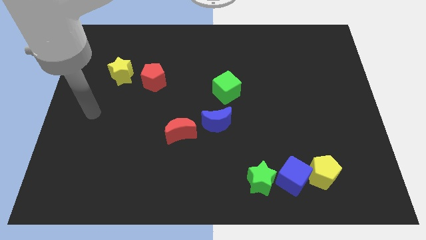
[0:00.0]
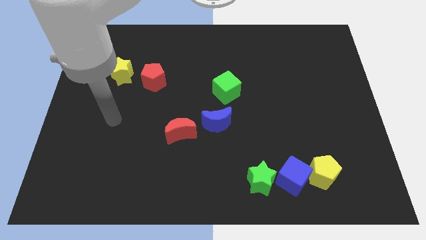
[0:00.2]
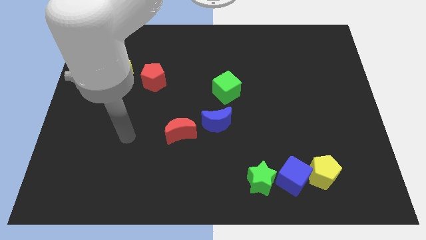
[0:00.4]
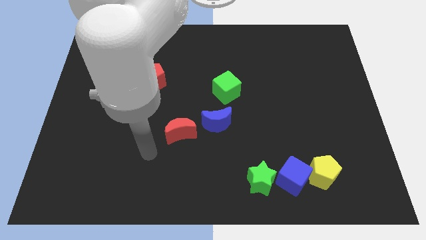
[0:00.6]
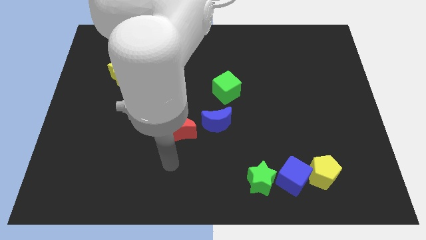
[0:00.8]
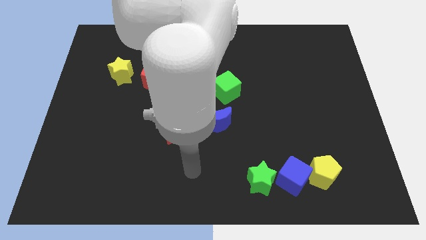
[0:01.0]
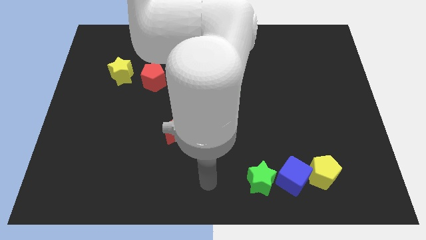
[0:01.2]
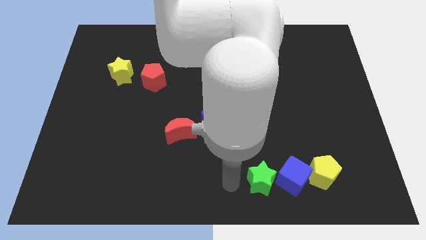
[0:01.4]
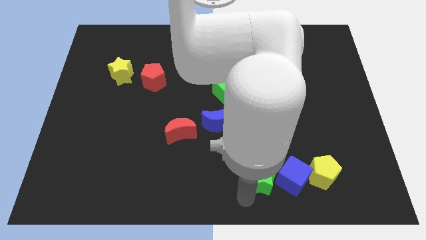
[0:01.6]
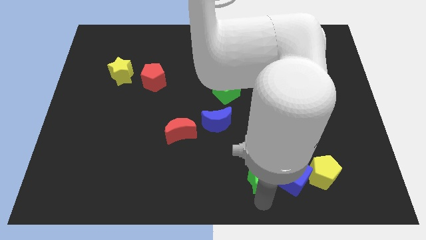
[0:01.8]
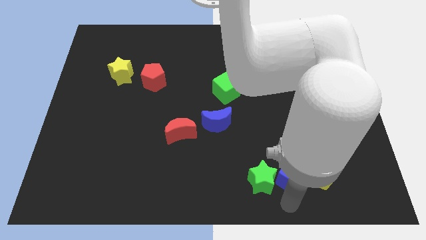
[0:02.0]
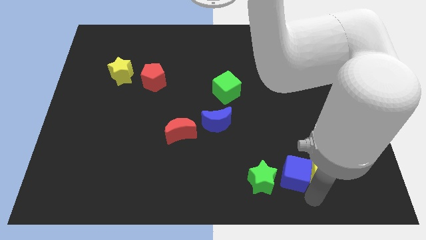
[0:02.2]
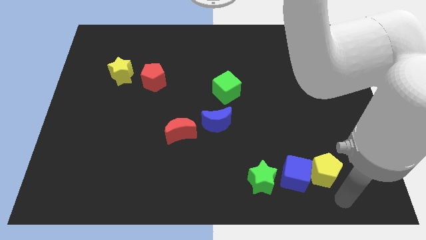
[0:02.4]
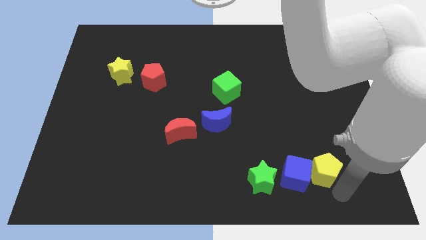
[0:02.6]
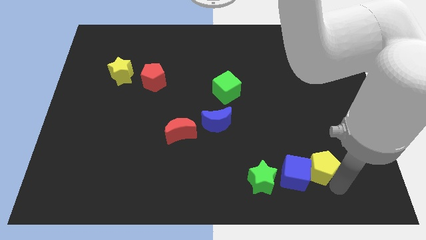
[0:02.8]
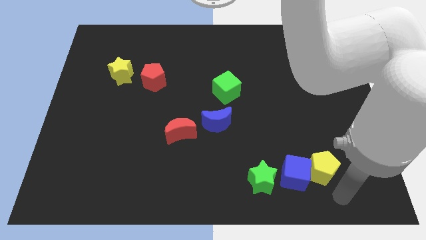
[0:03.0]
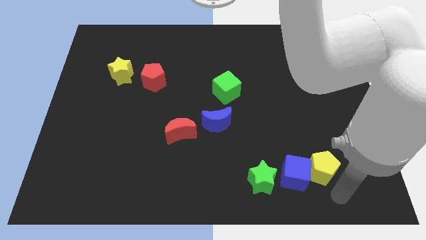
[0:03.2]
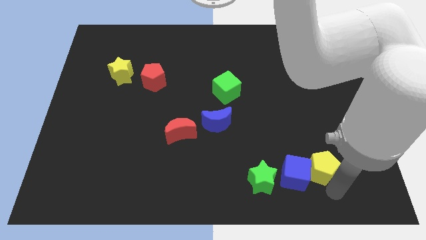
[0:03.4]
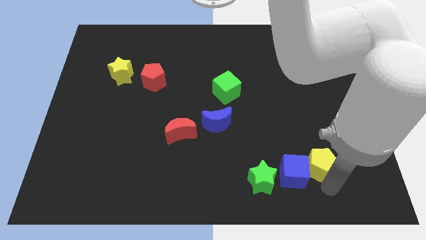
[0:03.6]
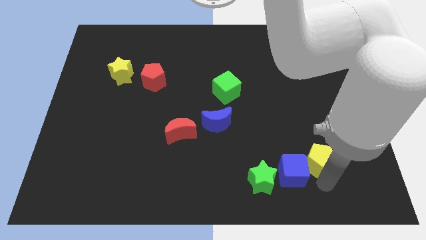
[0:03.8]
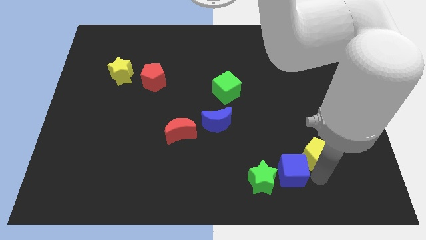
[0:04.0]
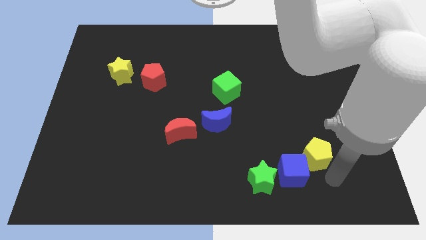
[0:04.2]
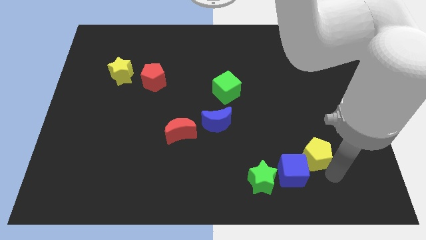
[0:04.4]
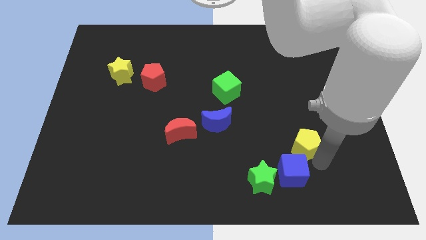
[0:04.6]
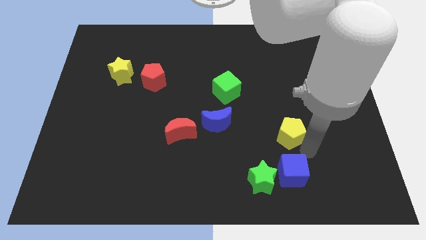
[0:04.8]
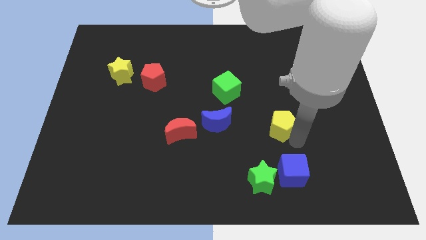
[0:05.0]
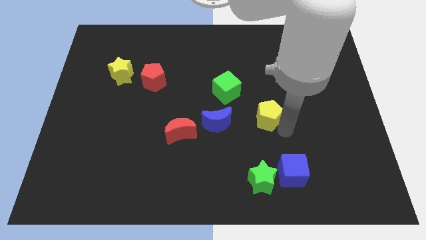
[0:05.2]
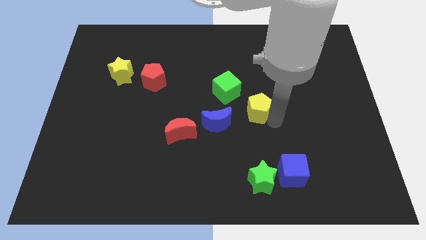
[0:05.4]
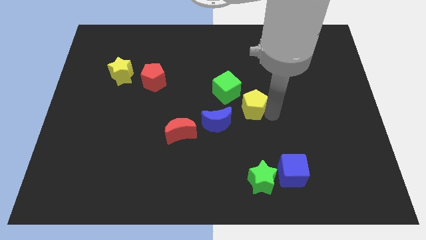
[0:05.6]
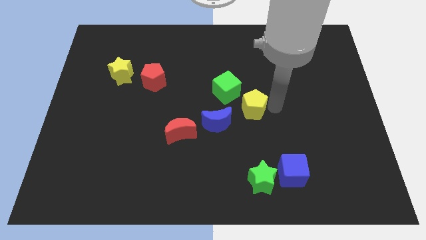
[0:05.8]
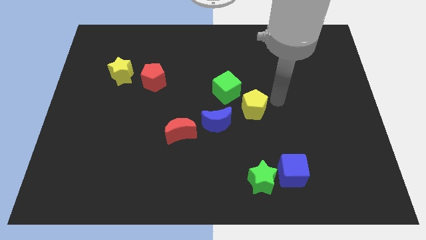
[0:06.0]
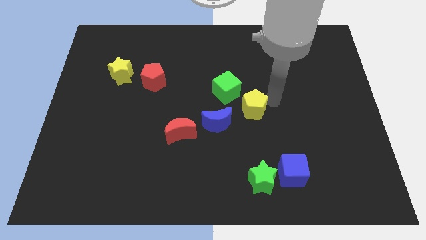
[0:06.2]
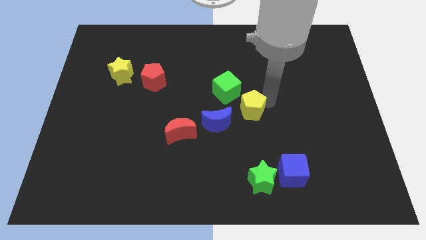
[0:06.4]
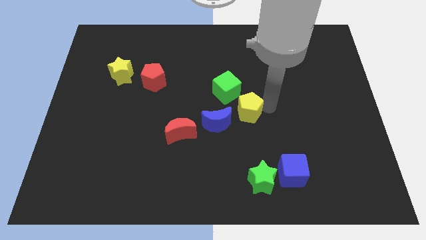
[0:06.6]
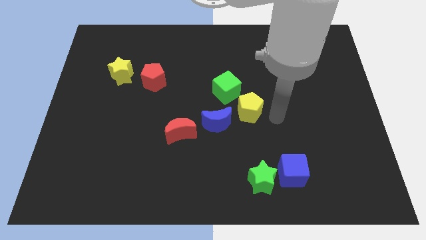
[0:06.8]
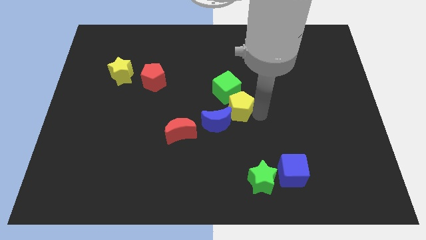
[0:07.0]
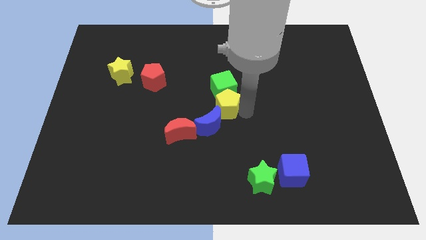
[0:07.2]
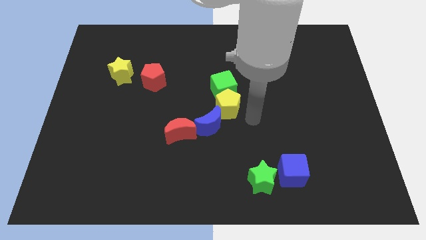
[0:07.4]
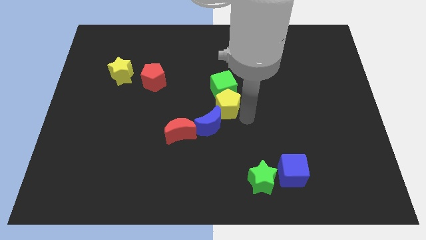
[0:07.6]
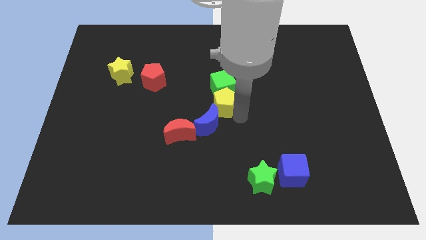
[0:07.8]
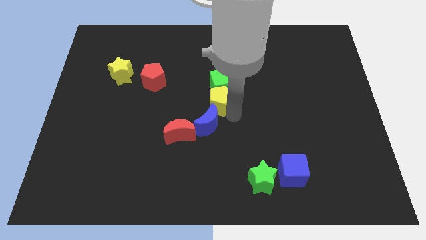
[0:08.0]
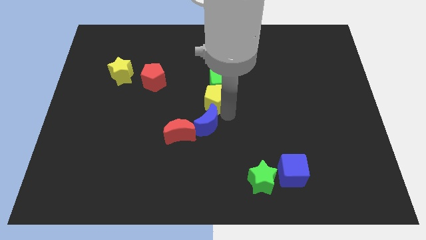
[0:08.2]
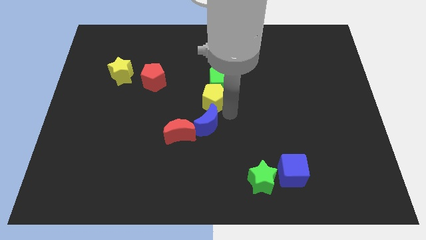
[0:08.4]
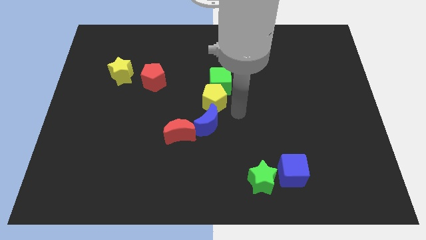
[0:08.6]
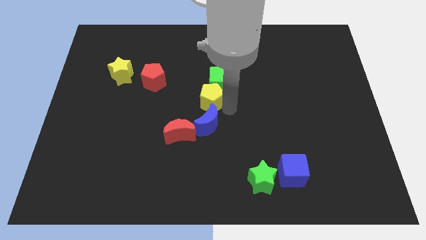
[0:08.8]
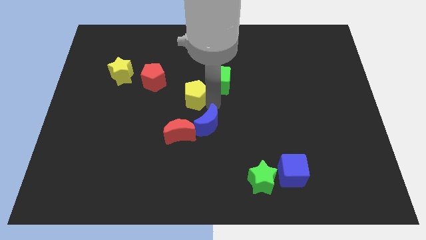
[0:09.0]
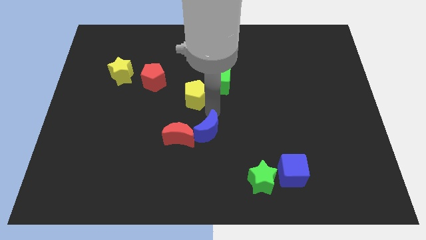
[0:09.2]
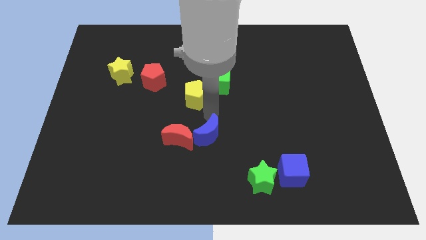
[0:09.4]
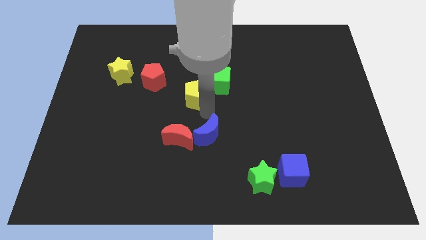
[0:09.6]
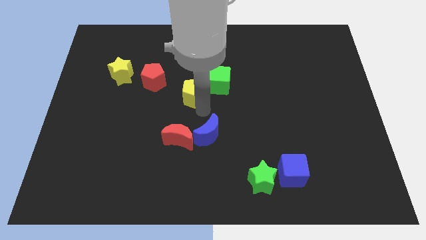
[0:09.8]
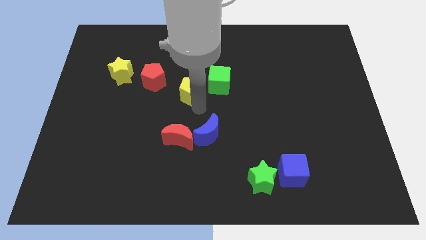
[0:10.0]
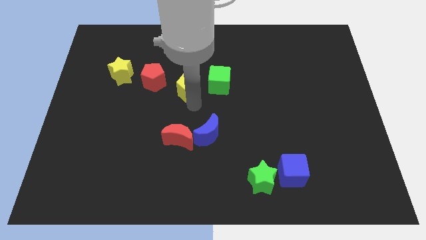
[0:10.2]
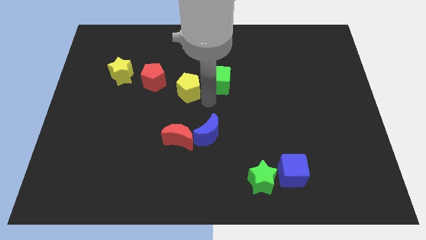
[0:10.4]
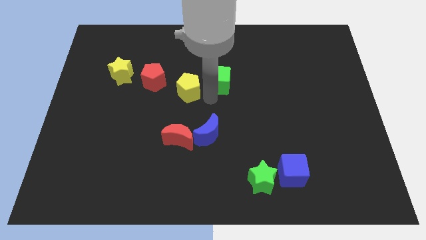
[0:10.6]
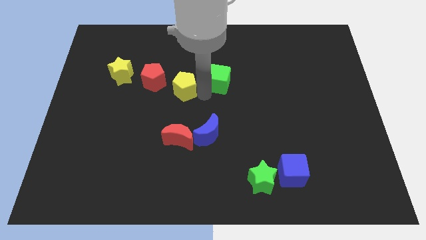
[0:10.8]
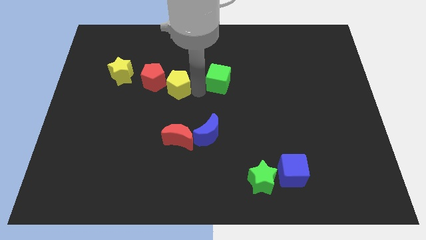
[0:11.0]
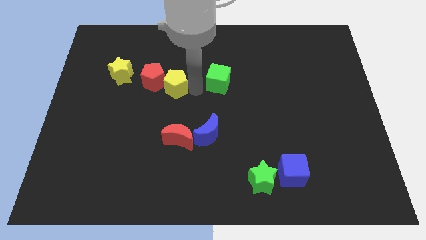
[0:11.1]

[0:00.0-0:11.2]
slide the yellow pentagon to the red pentagon

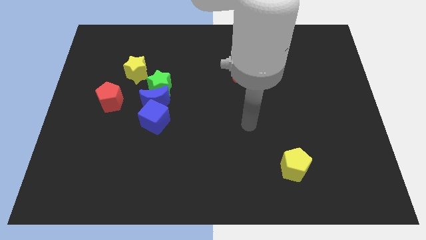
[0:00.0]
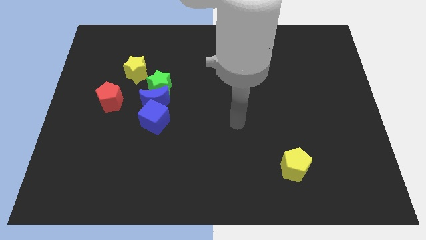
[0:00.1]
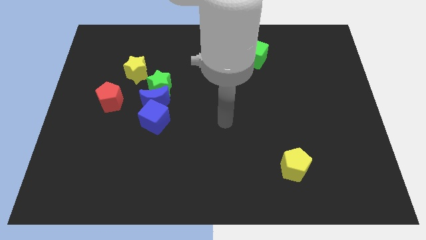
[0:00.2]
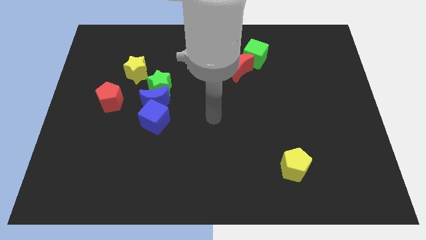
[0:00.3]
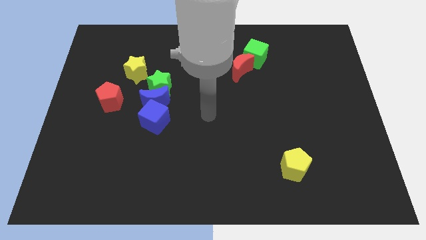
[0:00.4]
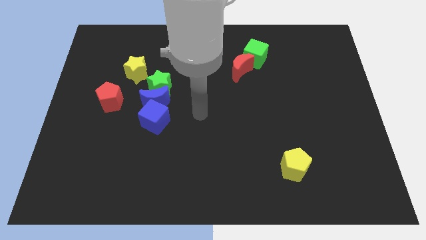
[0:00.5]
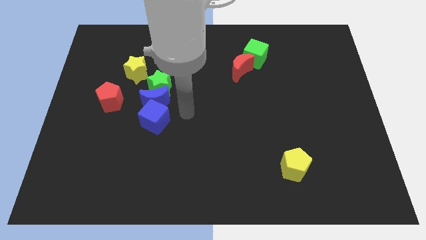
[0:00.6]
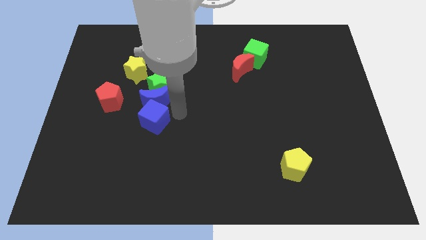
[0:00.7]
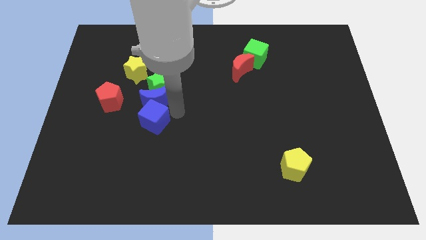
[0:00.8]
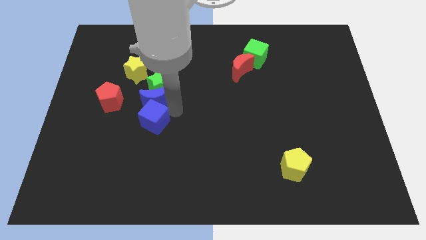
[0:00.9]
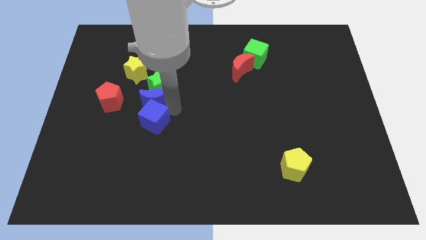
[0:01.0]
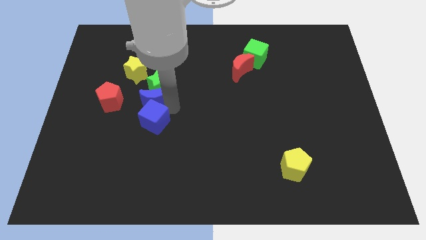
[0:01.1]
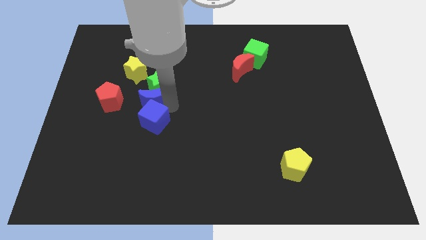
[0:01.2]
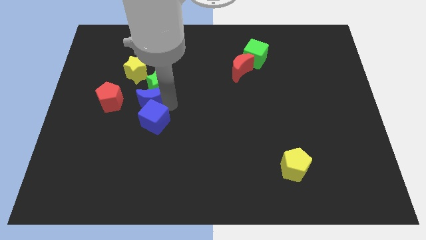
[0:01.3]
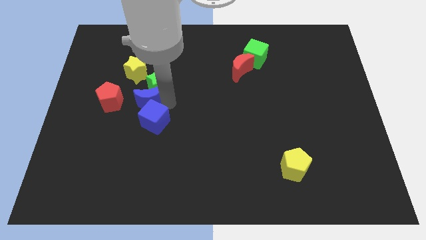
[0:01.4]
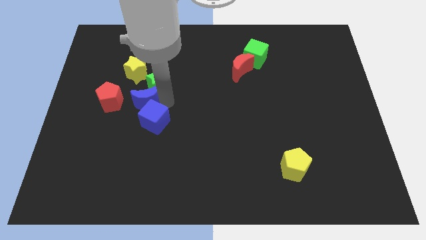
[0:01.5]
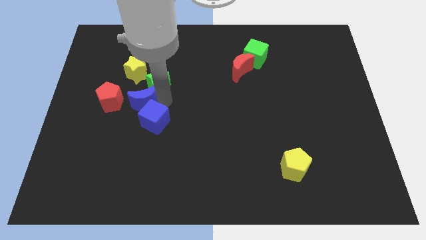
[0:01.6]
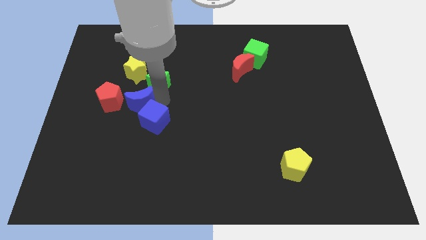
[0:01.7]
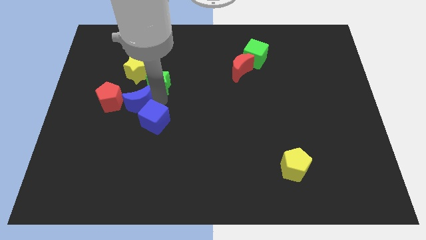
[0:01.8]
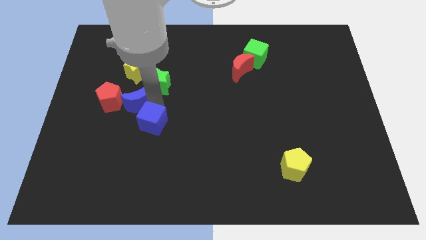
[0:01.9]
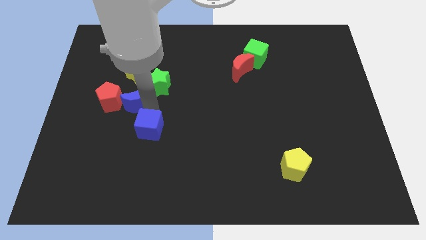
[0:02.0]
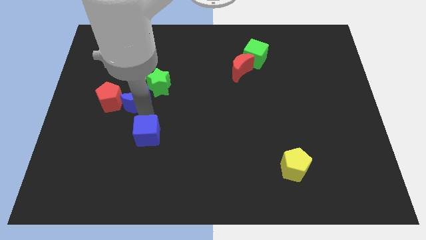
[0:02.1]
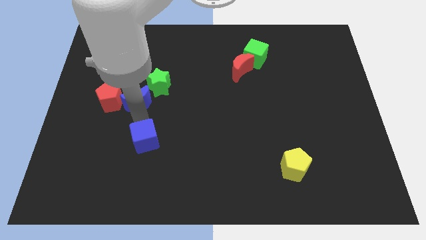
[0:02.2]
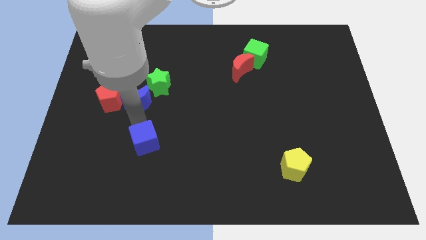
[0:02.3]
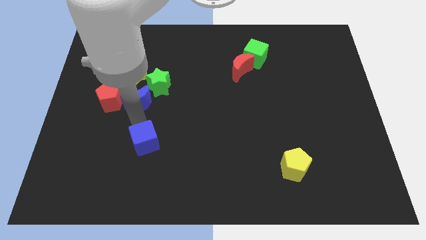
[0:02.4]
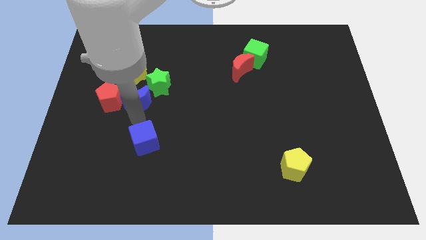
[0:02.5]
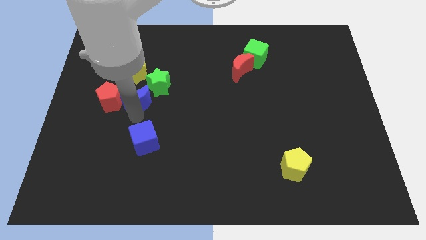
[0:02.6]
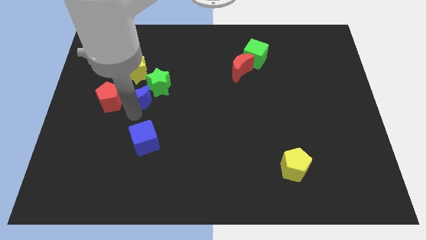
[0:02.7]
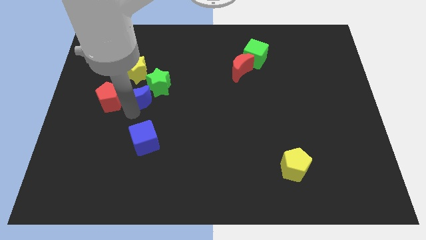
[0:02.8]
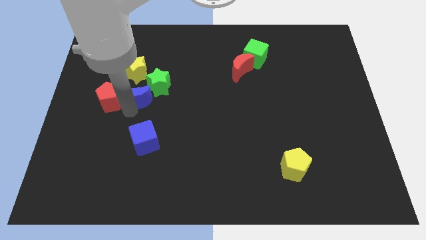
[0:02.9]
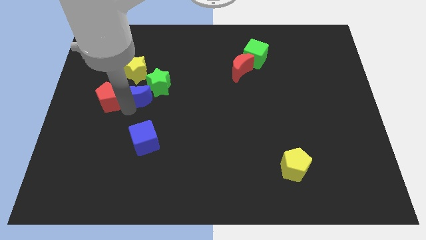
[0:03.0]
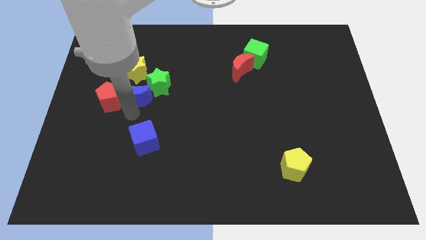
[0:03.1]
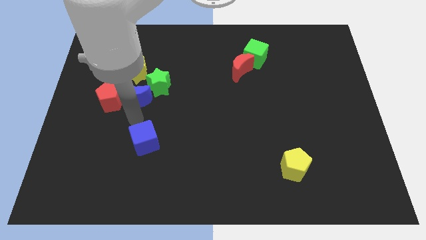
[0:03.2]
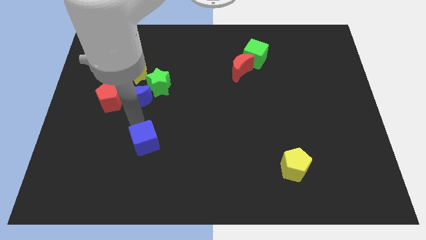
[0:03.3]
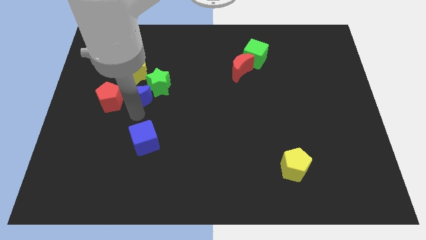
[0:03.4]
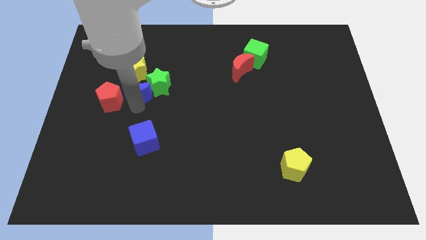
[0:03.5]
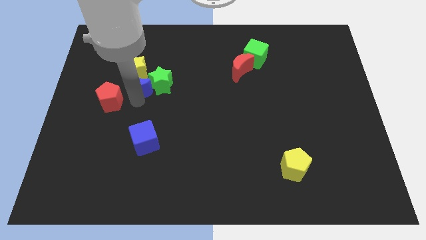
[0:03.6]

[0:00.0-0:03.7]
move the blue moon to the yellow star
